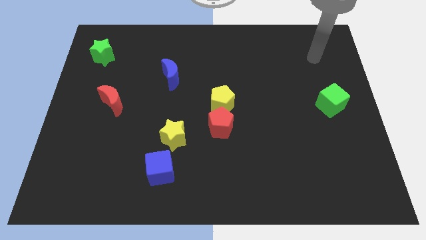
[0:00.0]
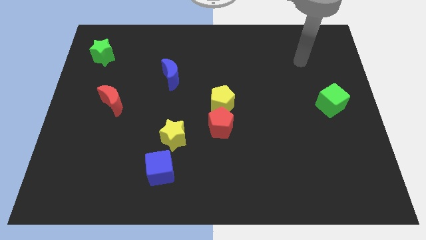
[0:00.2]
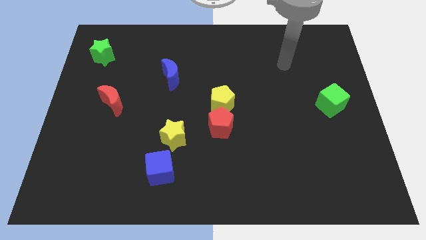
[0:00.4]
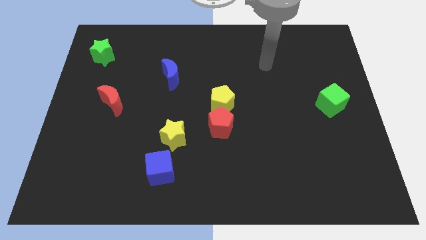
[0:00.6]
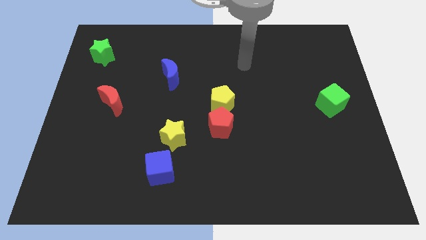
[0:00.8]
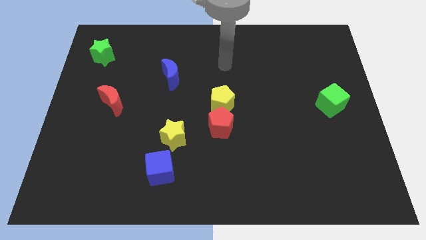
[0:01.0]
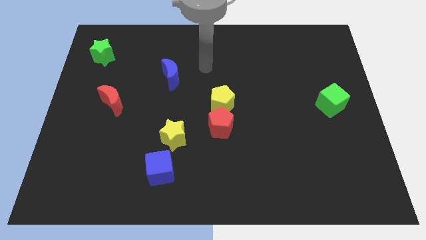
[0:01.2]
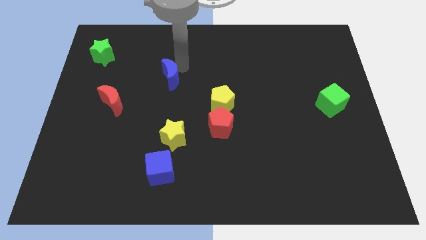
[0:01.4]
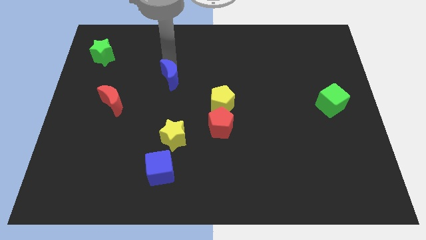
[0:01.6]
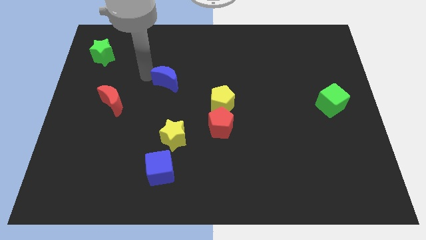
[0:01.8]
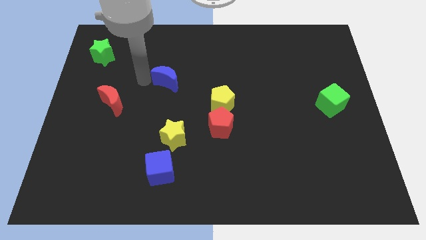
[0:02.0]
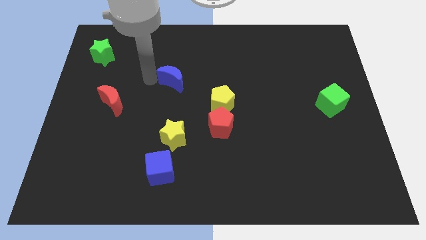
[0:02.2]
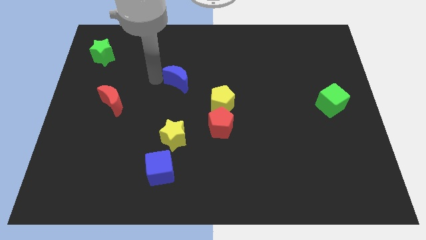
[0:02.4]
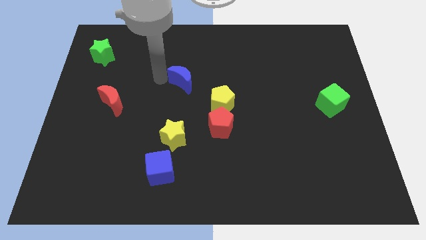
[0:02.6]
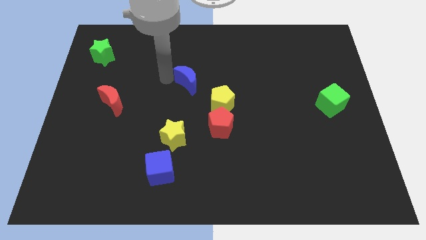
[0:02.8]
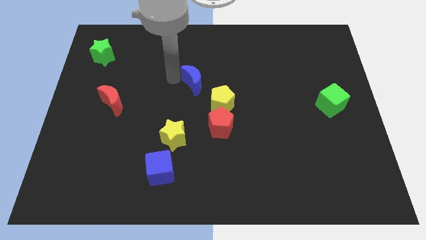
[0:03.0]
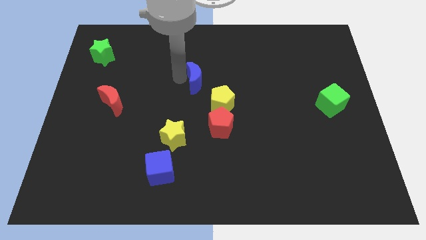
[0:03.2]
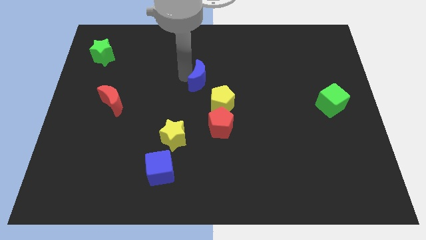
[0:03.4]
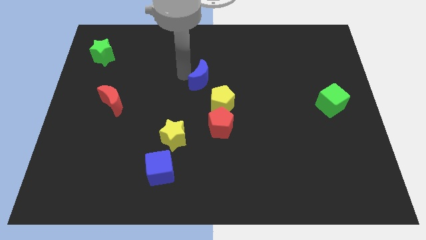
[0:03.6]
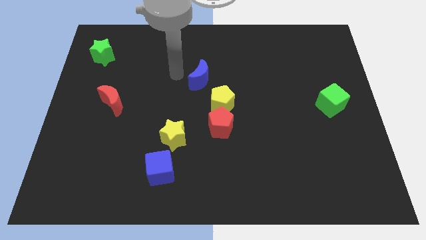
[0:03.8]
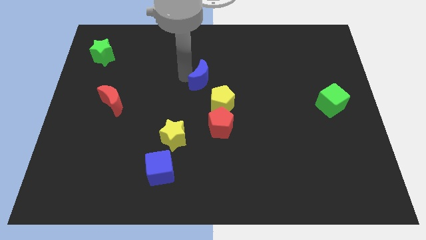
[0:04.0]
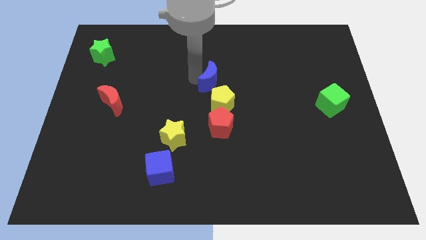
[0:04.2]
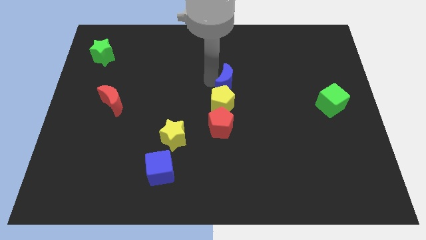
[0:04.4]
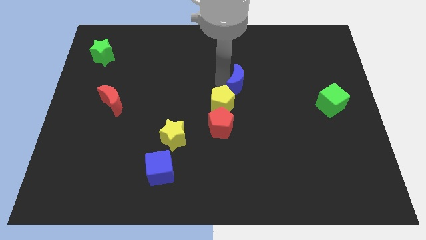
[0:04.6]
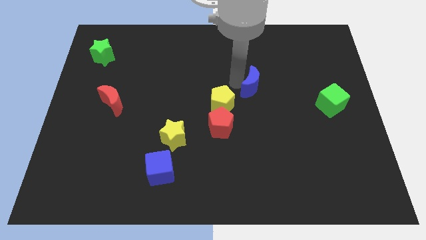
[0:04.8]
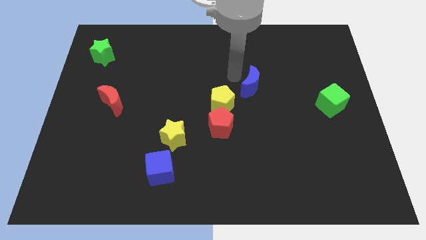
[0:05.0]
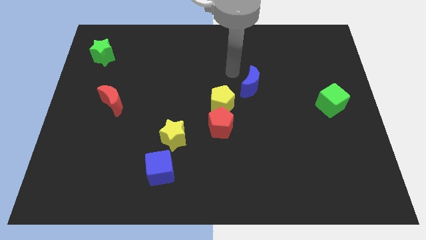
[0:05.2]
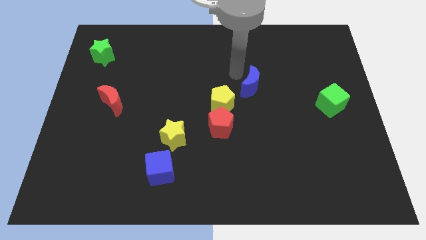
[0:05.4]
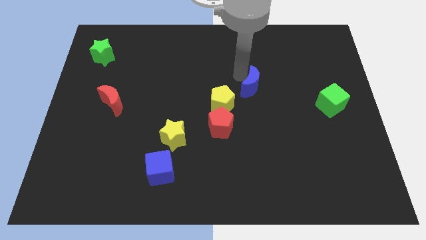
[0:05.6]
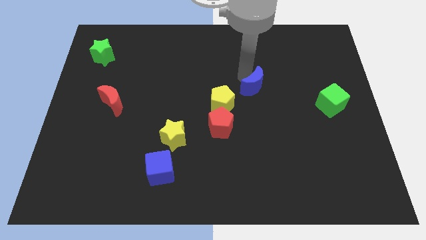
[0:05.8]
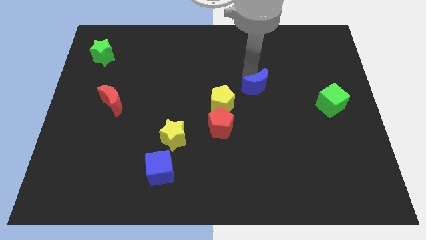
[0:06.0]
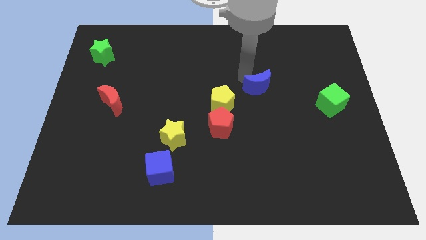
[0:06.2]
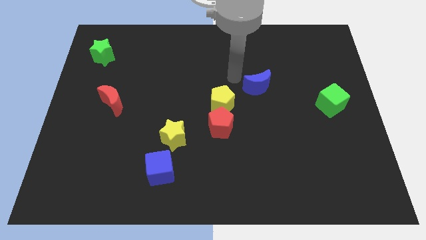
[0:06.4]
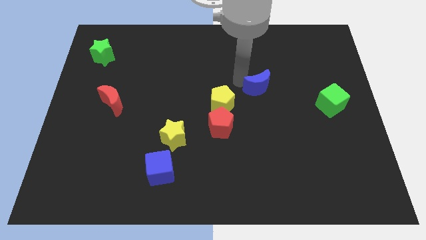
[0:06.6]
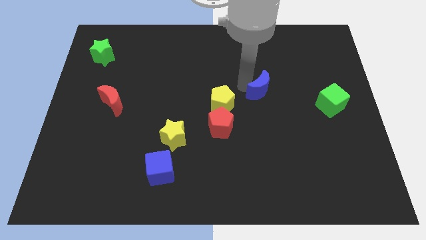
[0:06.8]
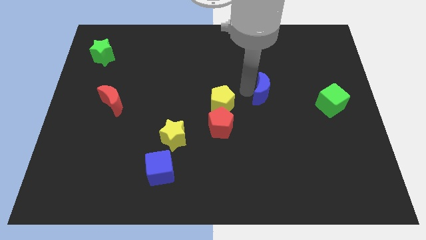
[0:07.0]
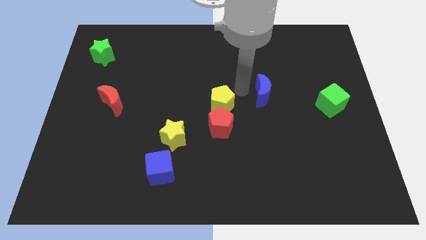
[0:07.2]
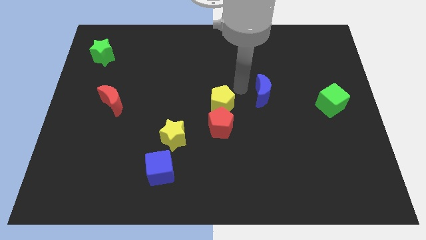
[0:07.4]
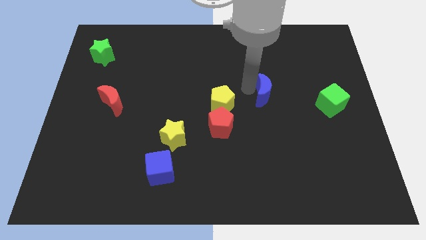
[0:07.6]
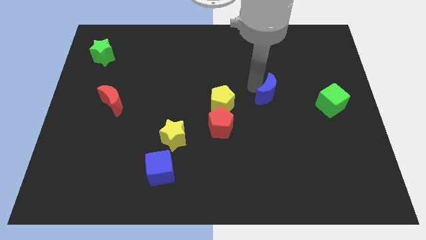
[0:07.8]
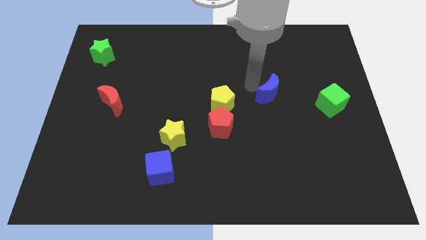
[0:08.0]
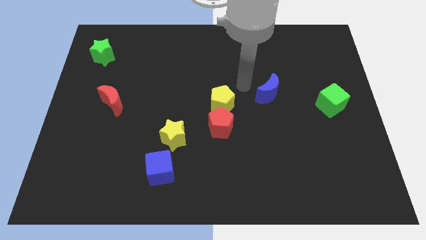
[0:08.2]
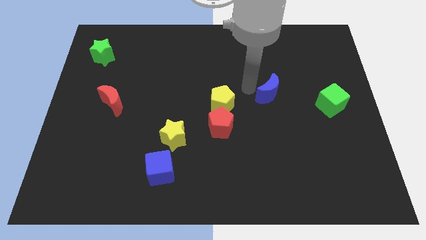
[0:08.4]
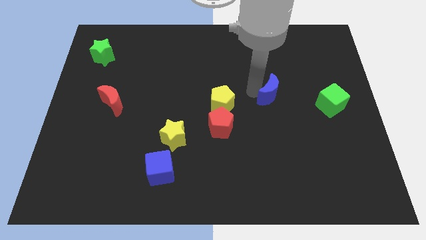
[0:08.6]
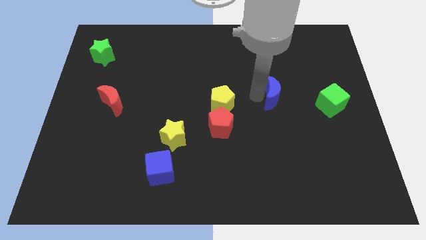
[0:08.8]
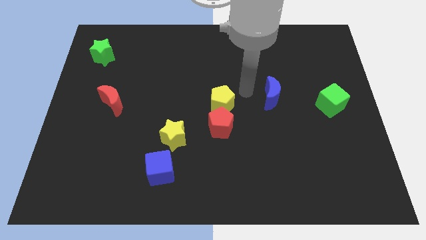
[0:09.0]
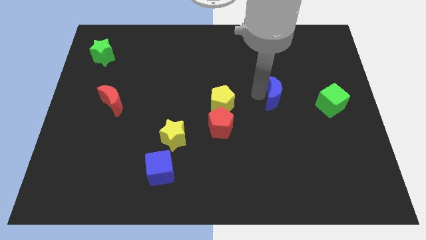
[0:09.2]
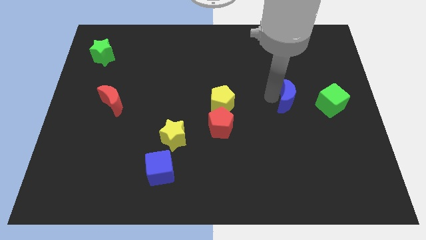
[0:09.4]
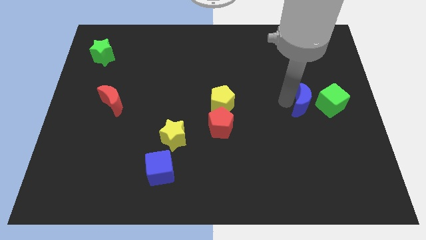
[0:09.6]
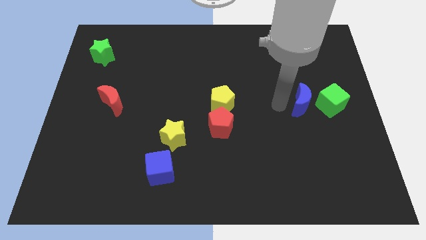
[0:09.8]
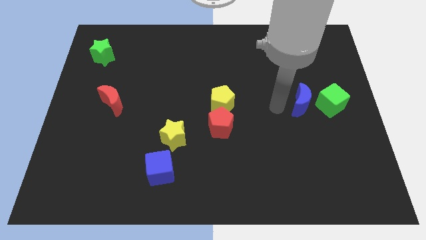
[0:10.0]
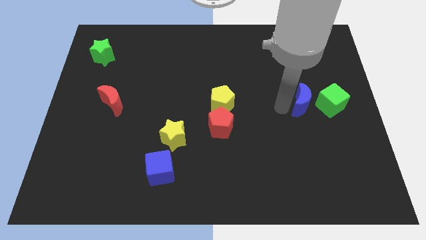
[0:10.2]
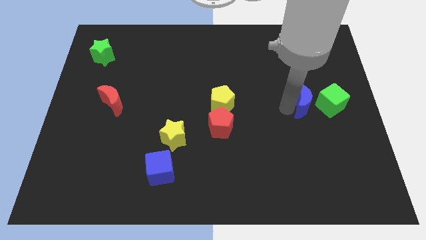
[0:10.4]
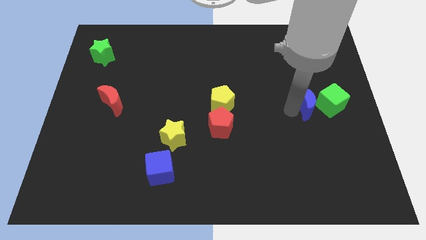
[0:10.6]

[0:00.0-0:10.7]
slide the blue moon close to the green cube

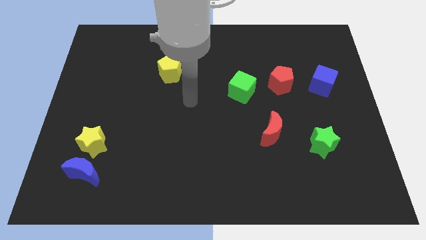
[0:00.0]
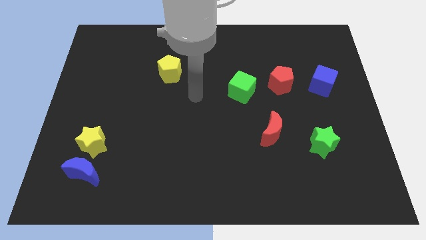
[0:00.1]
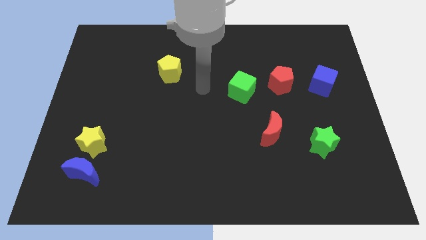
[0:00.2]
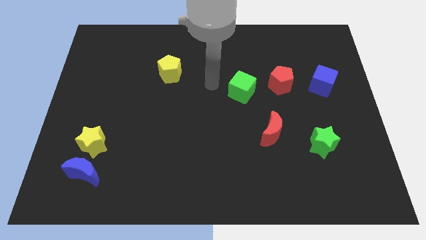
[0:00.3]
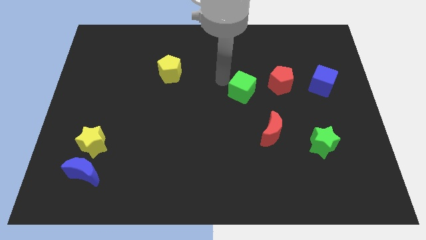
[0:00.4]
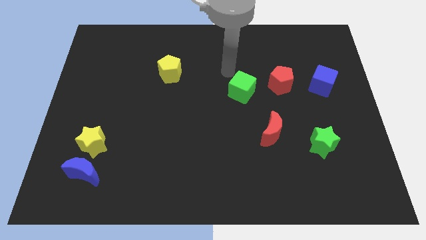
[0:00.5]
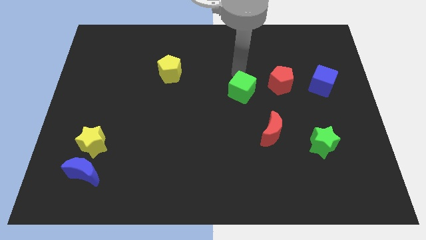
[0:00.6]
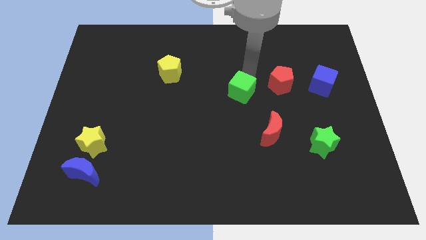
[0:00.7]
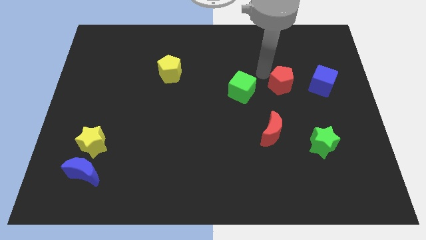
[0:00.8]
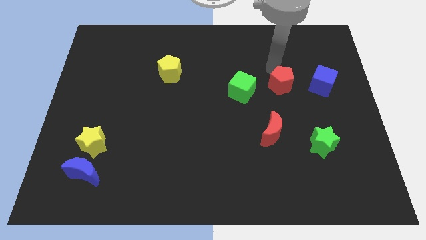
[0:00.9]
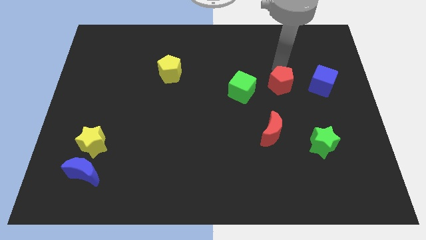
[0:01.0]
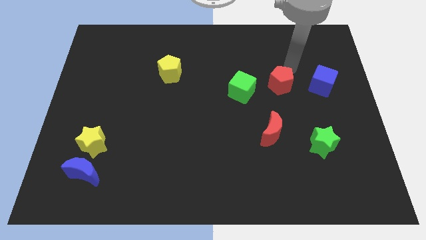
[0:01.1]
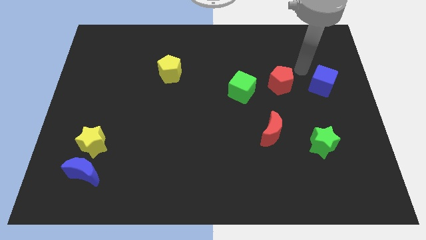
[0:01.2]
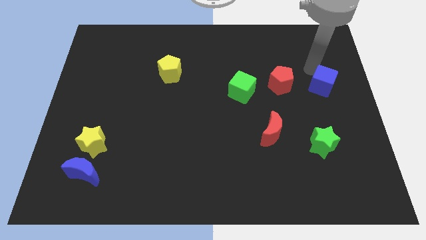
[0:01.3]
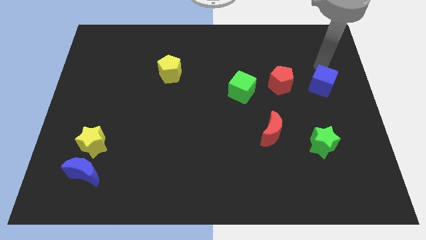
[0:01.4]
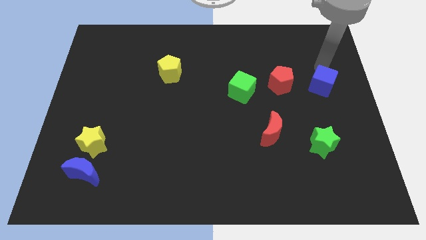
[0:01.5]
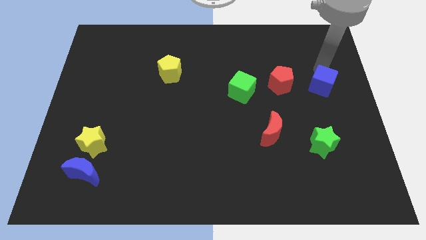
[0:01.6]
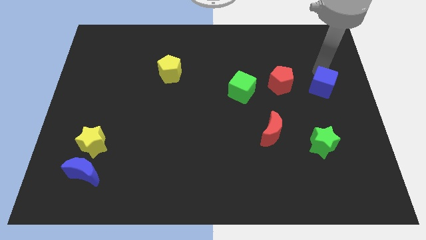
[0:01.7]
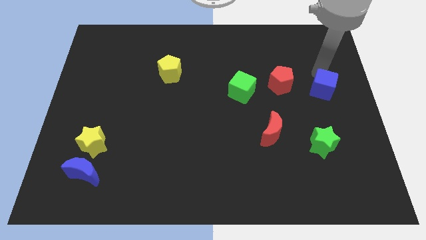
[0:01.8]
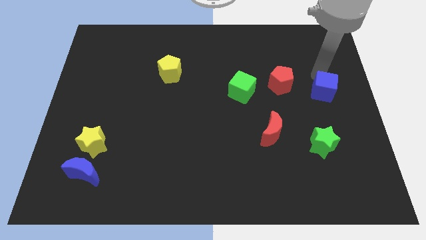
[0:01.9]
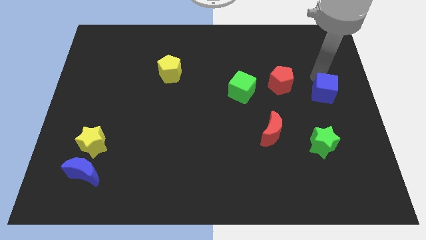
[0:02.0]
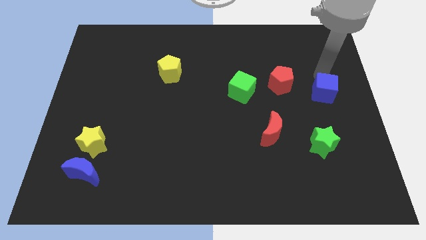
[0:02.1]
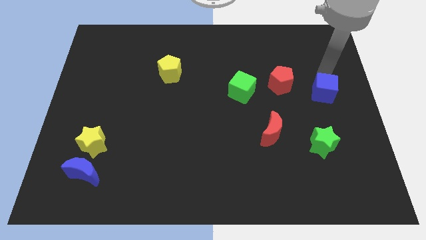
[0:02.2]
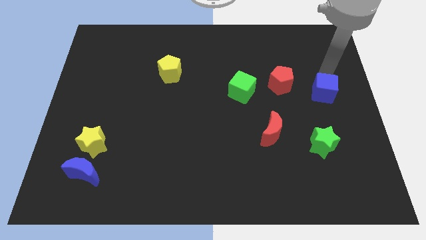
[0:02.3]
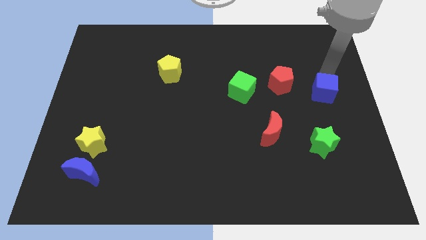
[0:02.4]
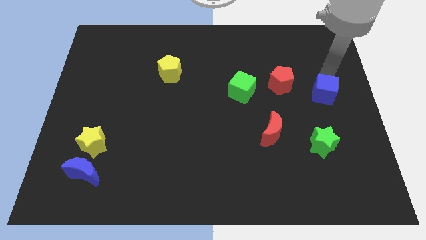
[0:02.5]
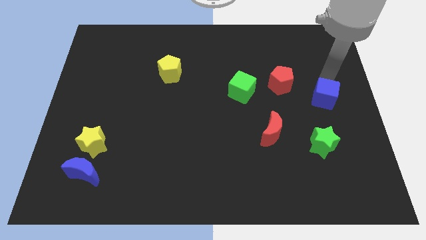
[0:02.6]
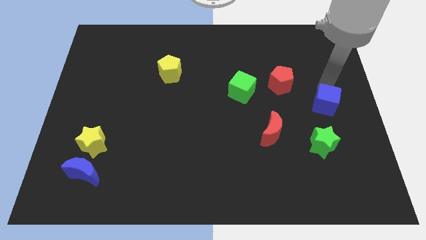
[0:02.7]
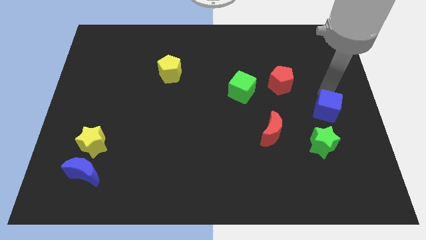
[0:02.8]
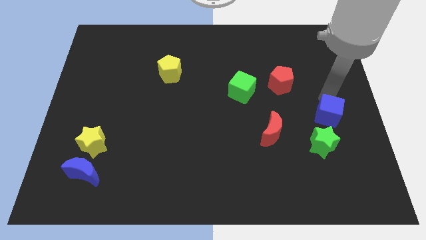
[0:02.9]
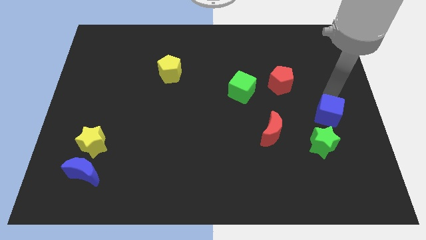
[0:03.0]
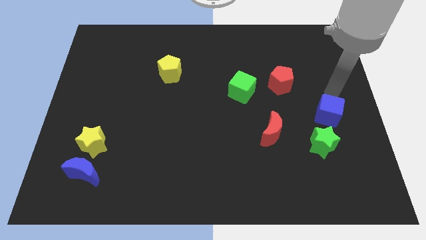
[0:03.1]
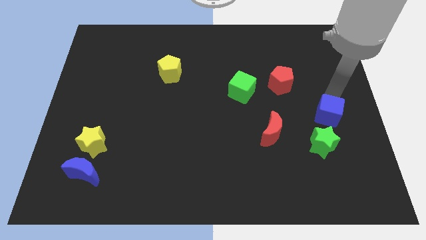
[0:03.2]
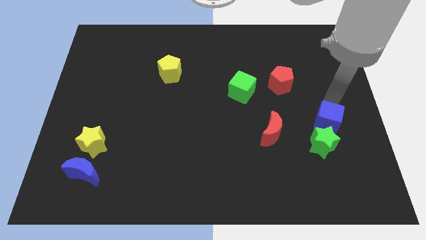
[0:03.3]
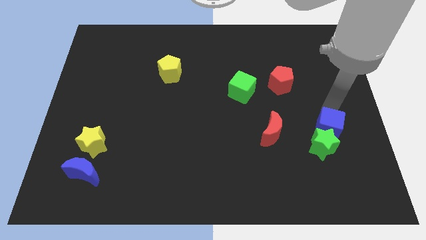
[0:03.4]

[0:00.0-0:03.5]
move the blue cube towards the green star
